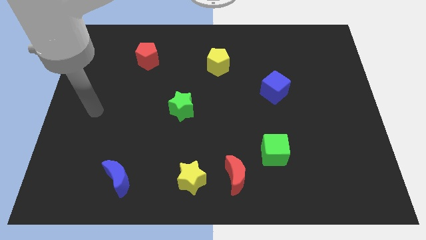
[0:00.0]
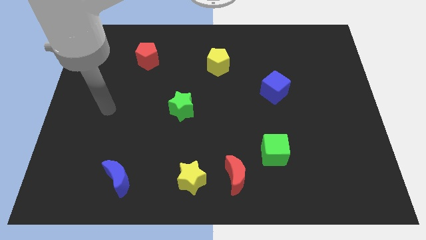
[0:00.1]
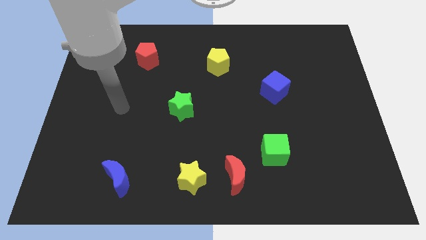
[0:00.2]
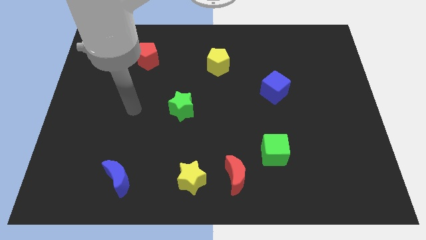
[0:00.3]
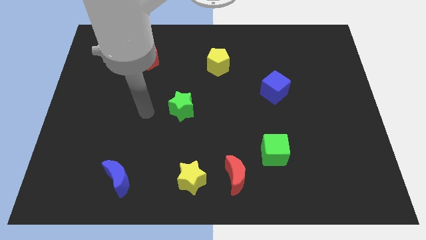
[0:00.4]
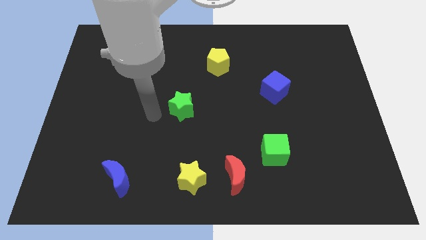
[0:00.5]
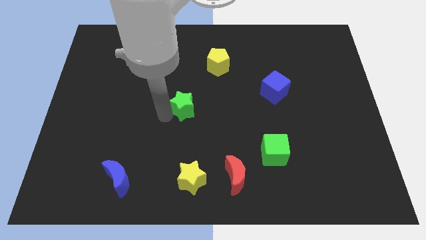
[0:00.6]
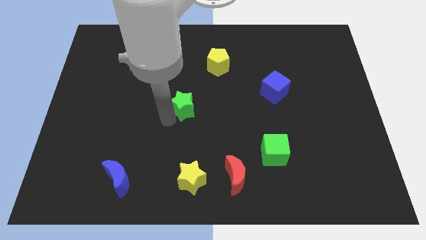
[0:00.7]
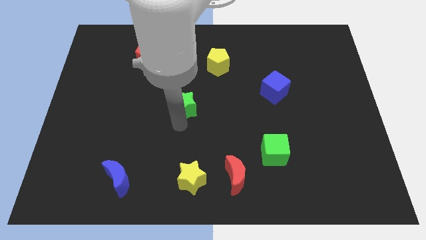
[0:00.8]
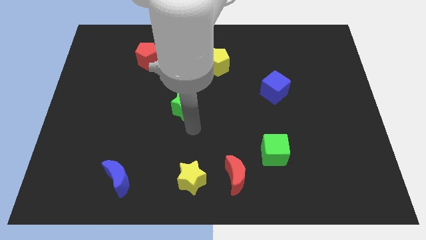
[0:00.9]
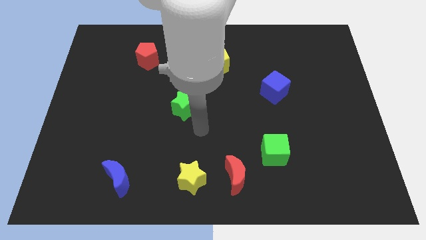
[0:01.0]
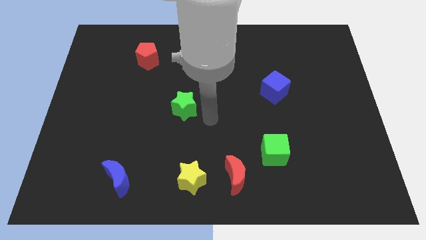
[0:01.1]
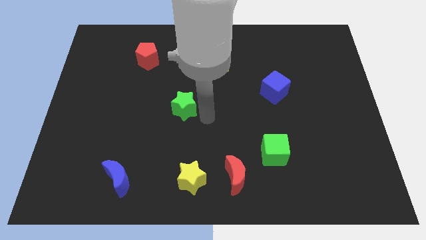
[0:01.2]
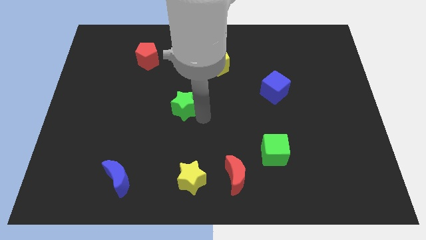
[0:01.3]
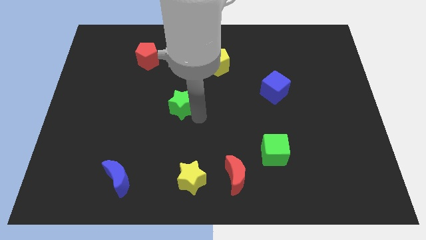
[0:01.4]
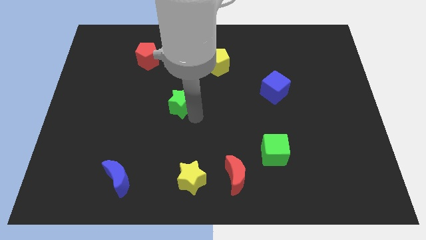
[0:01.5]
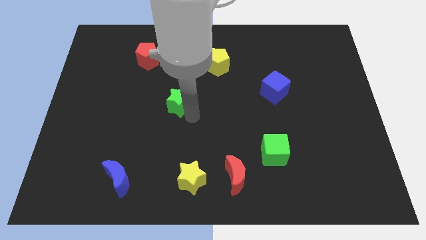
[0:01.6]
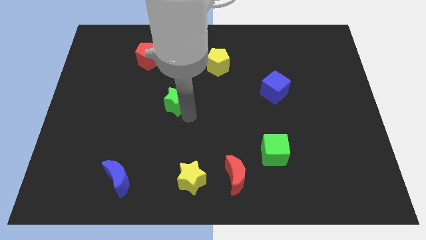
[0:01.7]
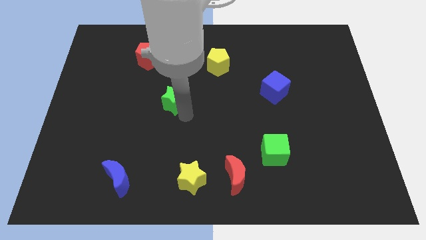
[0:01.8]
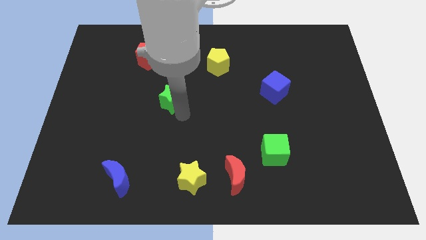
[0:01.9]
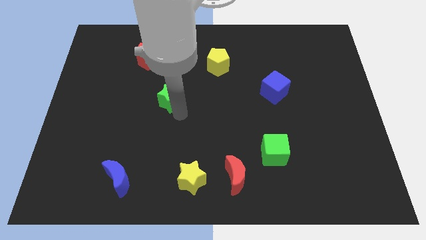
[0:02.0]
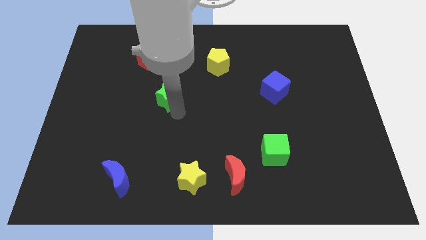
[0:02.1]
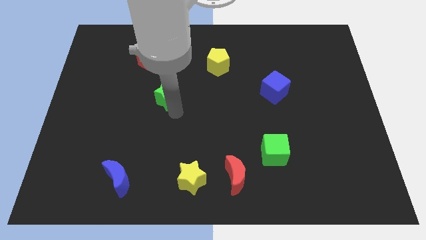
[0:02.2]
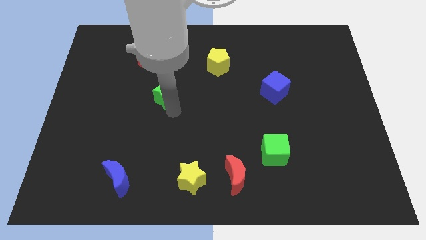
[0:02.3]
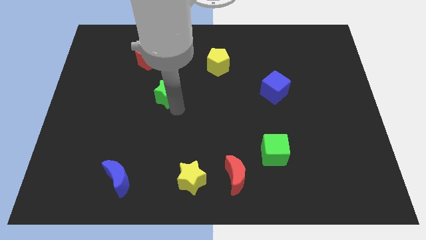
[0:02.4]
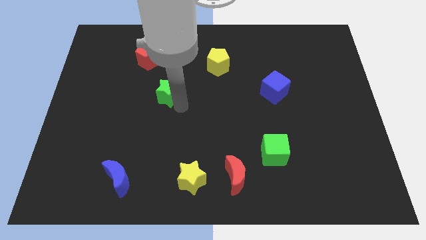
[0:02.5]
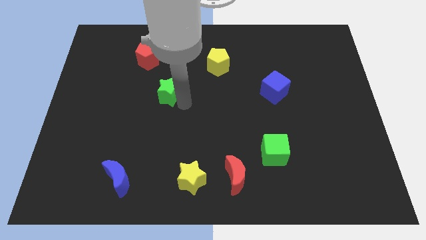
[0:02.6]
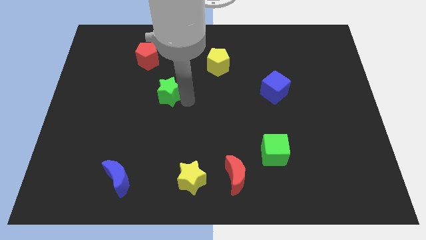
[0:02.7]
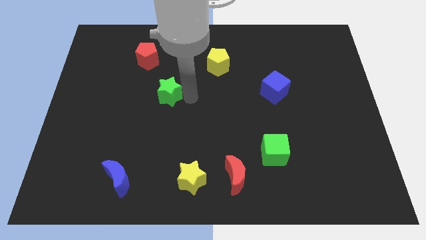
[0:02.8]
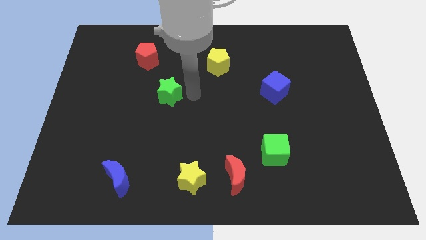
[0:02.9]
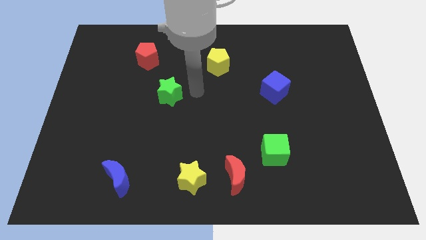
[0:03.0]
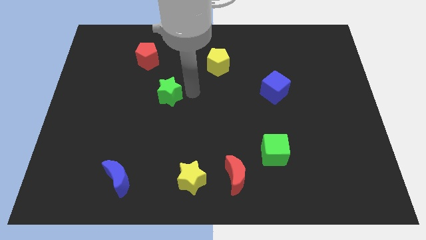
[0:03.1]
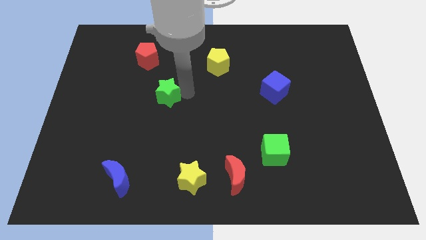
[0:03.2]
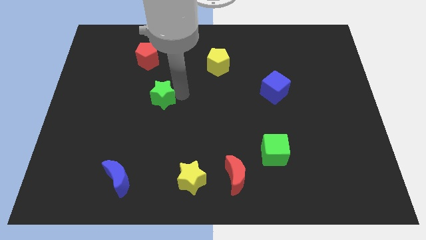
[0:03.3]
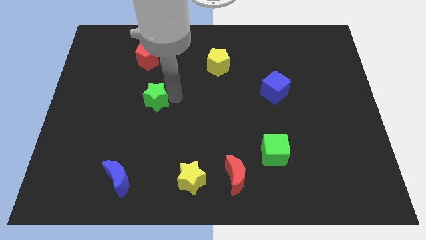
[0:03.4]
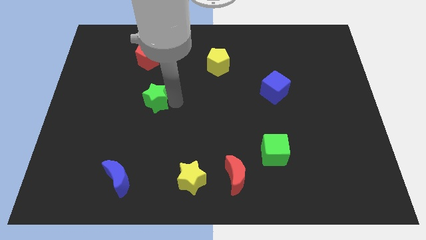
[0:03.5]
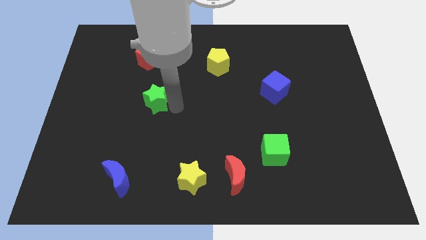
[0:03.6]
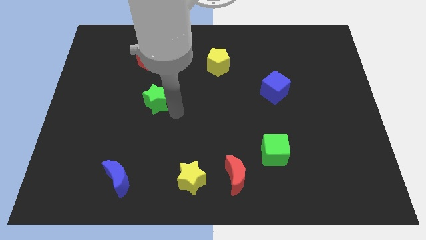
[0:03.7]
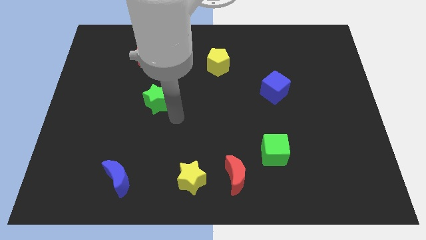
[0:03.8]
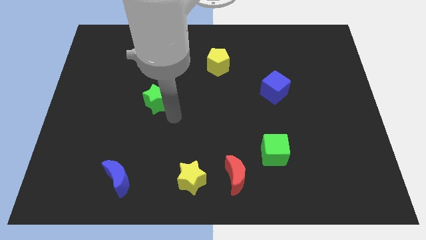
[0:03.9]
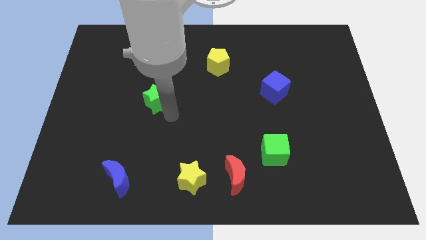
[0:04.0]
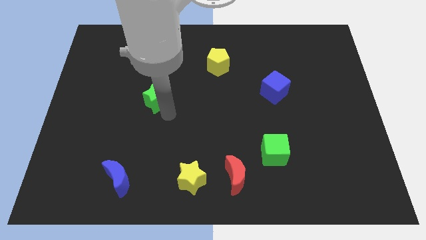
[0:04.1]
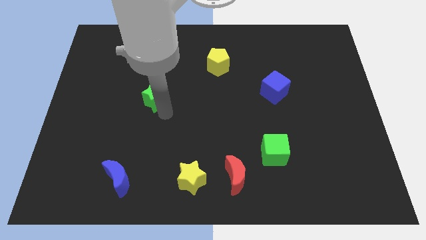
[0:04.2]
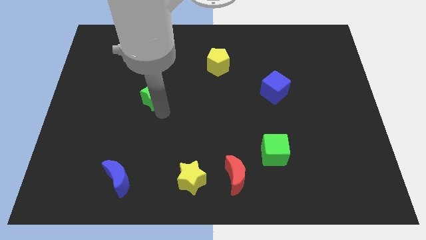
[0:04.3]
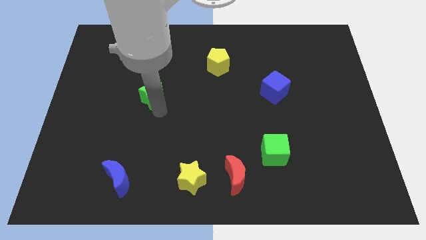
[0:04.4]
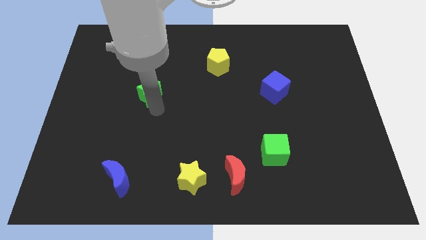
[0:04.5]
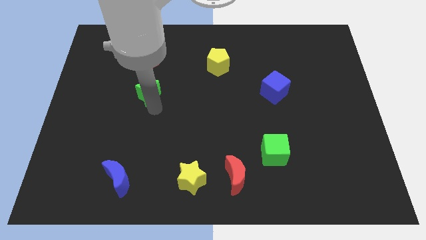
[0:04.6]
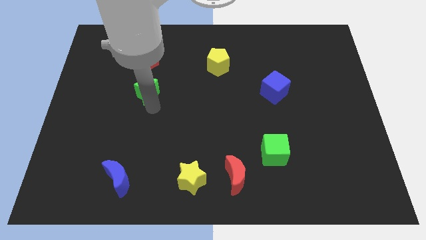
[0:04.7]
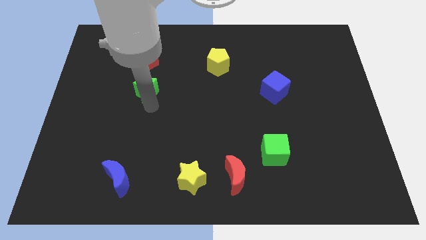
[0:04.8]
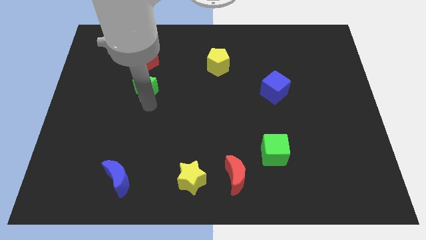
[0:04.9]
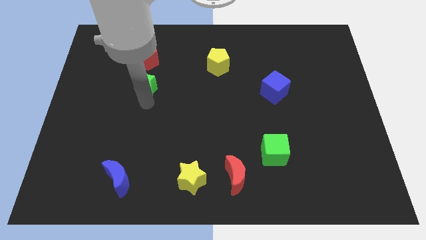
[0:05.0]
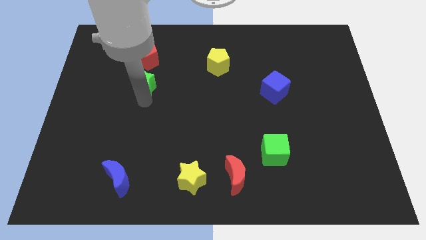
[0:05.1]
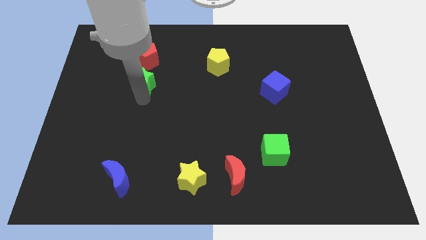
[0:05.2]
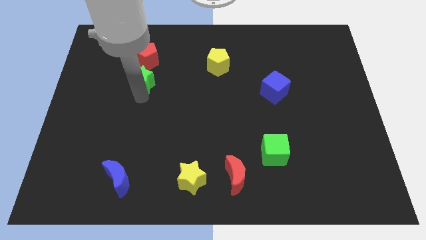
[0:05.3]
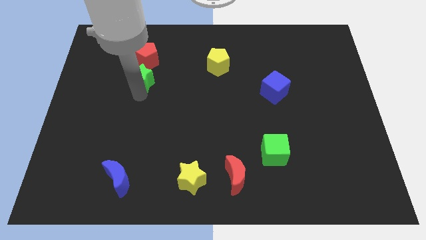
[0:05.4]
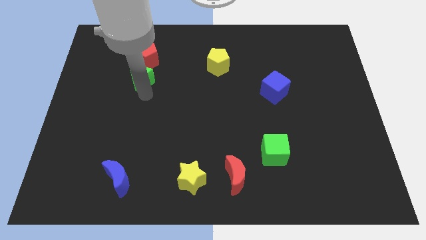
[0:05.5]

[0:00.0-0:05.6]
move the green star to the bottom left of the red pentagon
